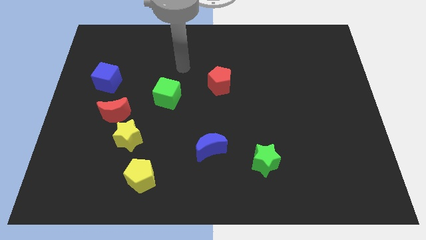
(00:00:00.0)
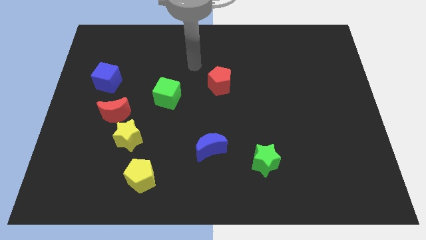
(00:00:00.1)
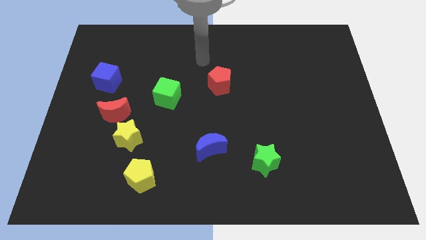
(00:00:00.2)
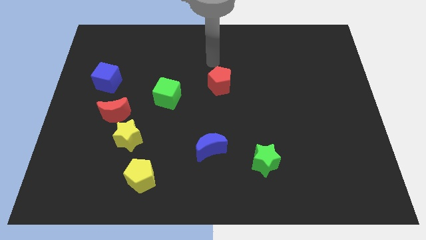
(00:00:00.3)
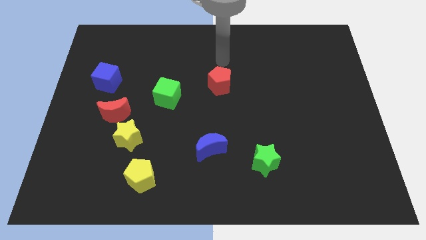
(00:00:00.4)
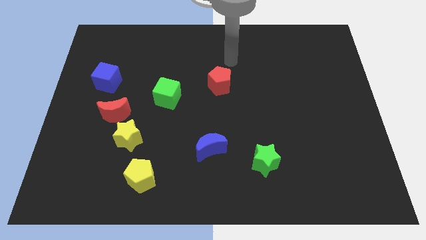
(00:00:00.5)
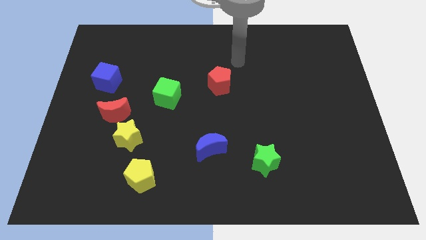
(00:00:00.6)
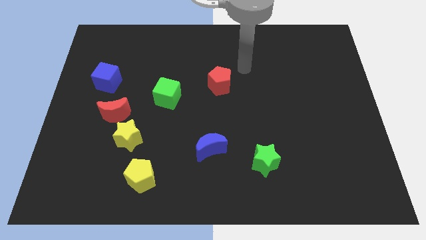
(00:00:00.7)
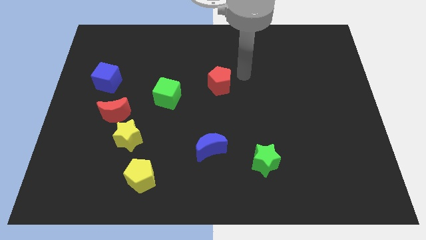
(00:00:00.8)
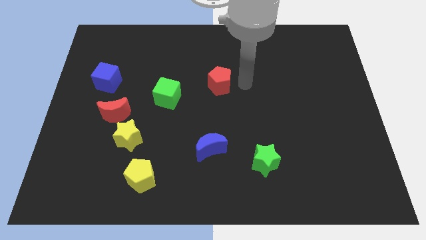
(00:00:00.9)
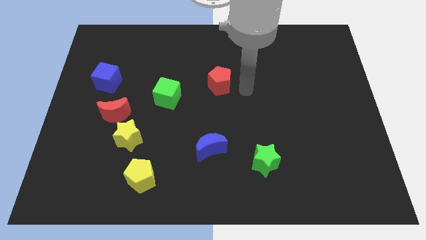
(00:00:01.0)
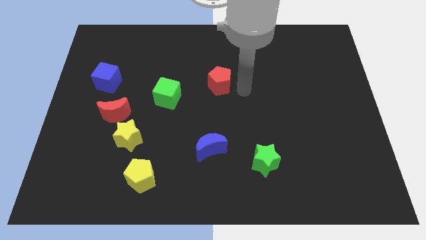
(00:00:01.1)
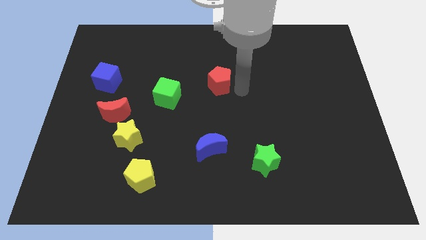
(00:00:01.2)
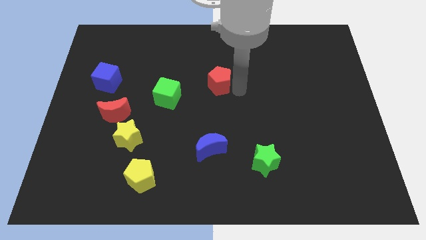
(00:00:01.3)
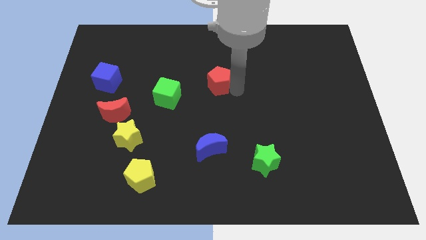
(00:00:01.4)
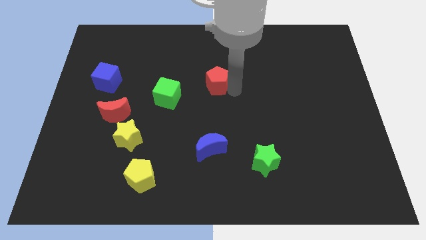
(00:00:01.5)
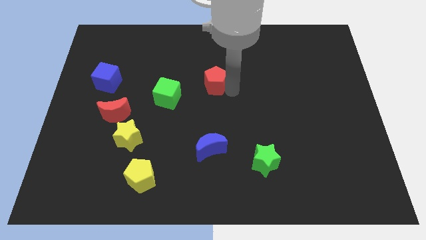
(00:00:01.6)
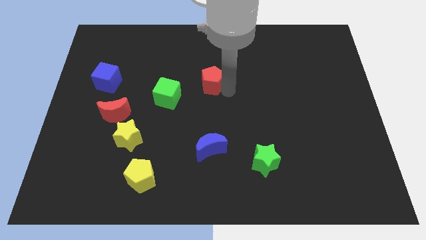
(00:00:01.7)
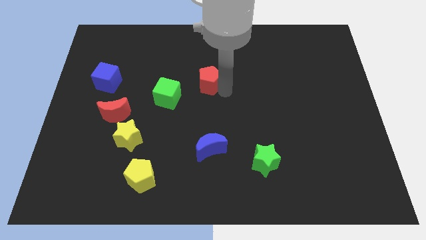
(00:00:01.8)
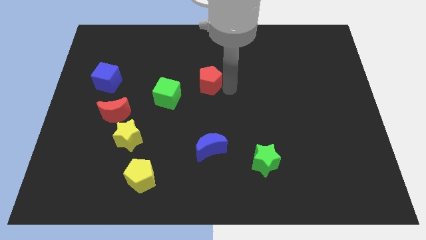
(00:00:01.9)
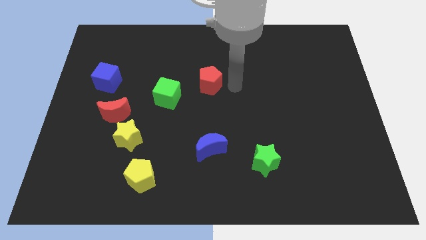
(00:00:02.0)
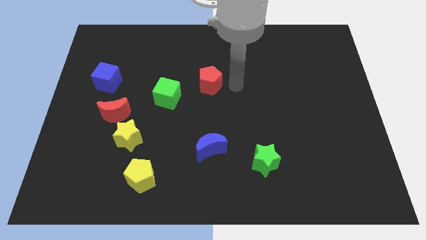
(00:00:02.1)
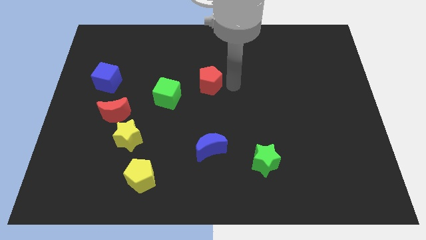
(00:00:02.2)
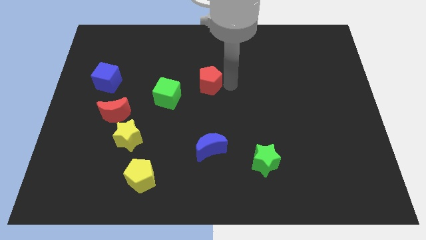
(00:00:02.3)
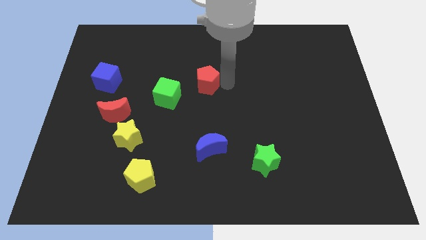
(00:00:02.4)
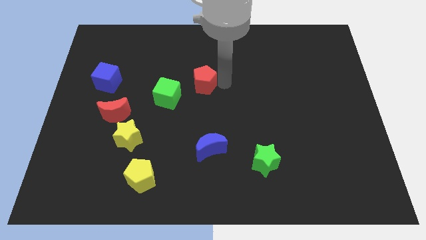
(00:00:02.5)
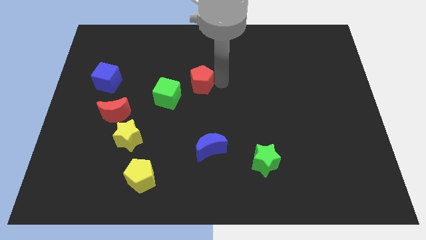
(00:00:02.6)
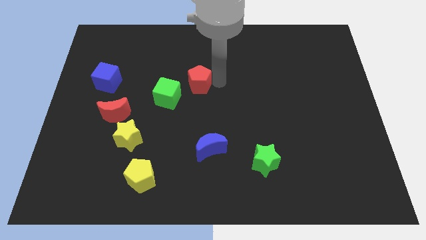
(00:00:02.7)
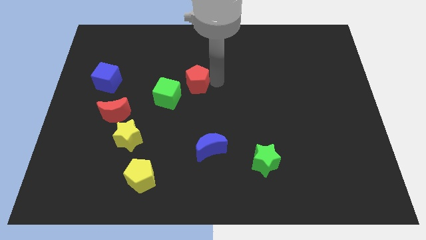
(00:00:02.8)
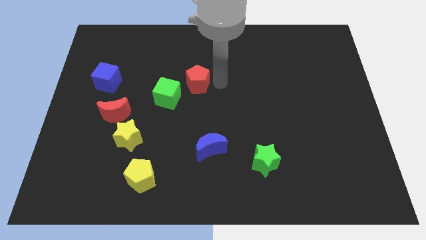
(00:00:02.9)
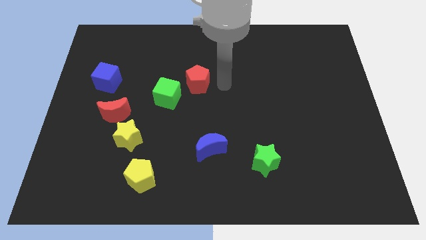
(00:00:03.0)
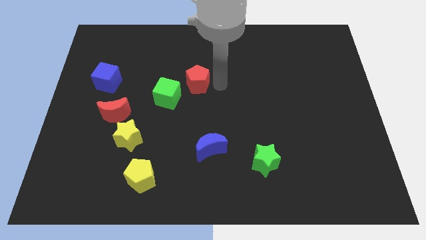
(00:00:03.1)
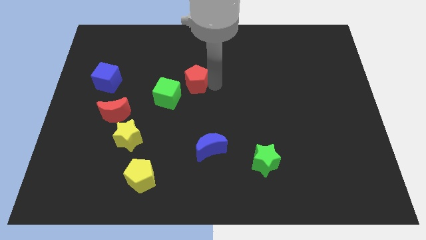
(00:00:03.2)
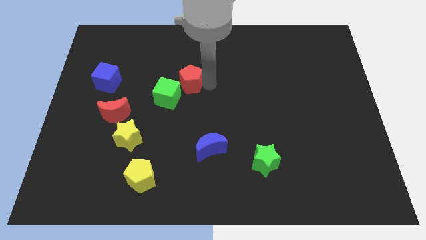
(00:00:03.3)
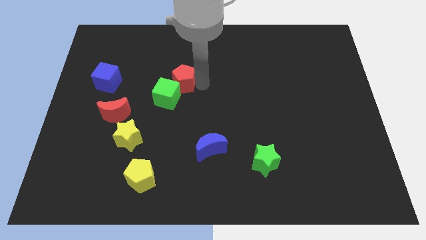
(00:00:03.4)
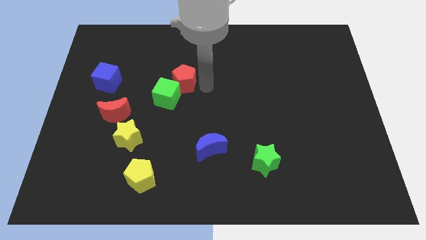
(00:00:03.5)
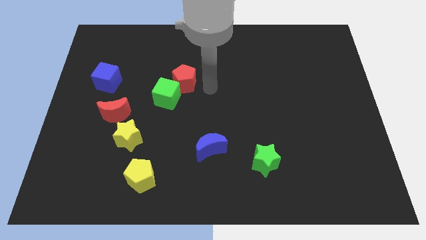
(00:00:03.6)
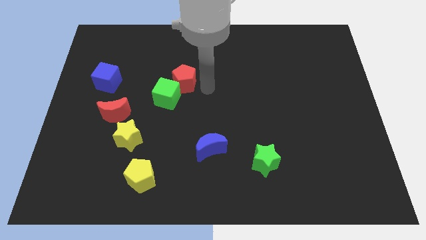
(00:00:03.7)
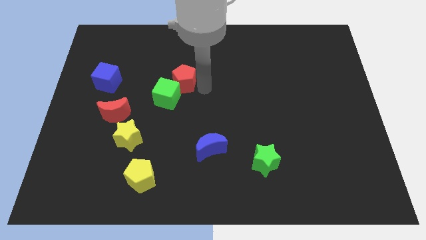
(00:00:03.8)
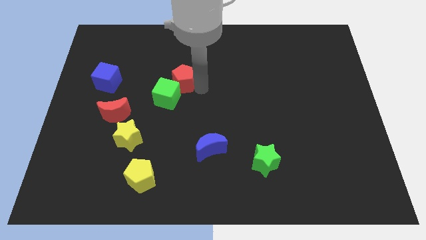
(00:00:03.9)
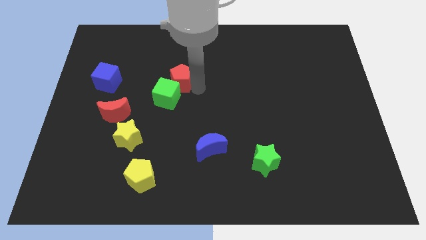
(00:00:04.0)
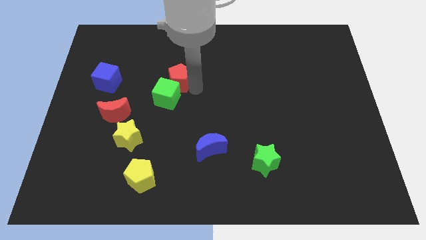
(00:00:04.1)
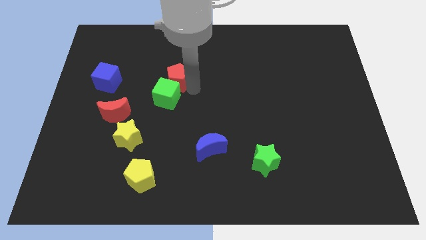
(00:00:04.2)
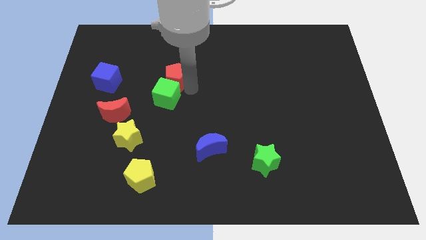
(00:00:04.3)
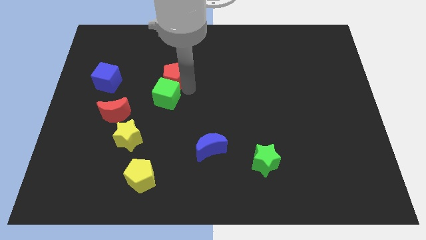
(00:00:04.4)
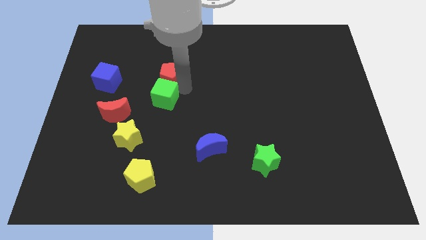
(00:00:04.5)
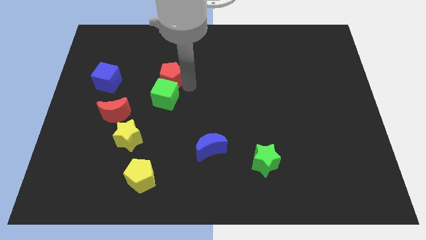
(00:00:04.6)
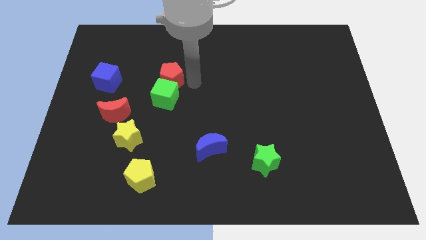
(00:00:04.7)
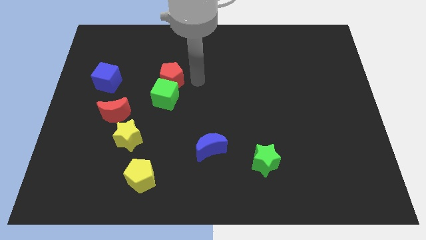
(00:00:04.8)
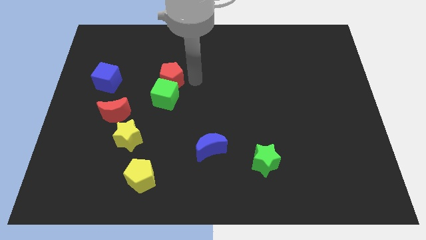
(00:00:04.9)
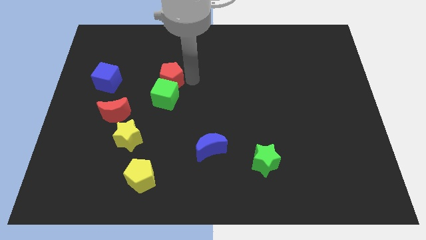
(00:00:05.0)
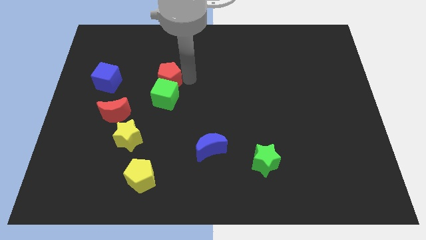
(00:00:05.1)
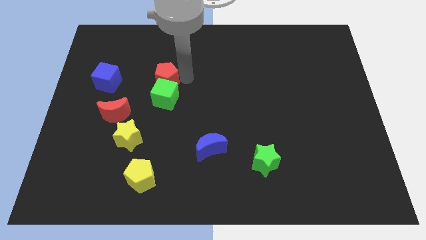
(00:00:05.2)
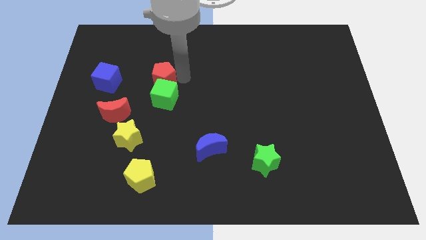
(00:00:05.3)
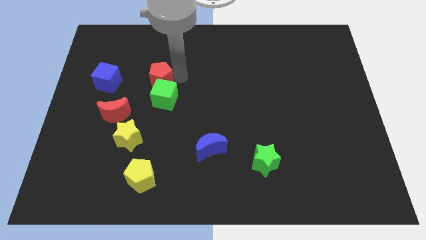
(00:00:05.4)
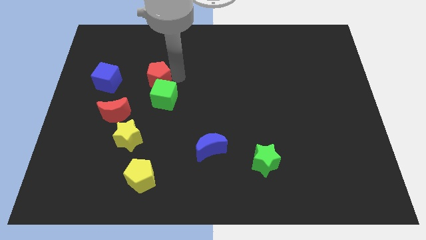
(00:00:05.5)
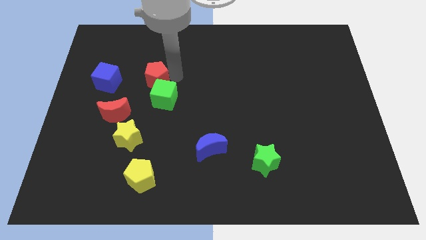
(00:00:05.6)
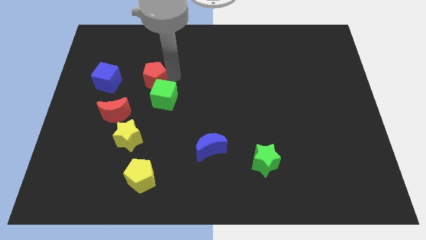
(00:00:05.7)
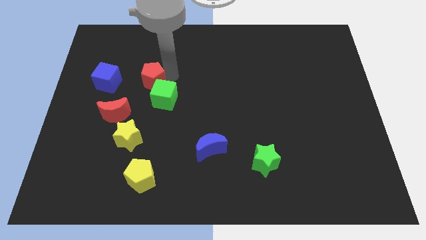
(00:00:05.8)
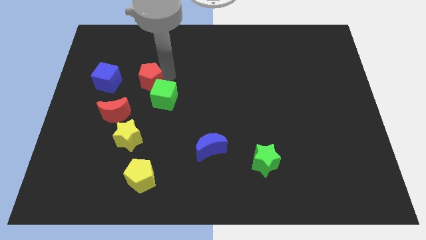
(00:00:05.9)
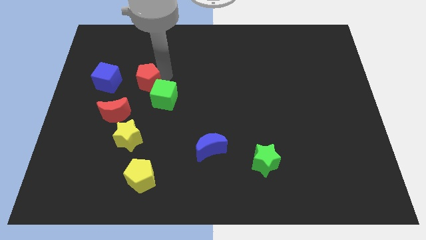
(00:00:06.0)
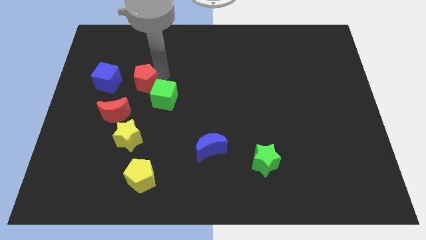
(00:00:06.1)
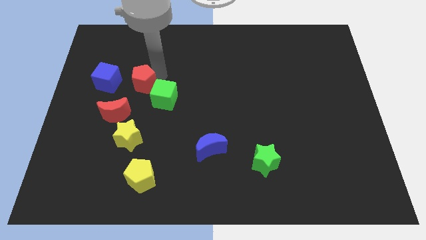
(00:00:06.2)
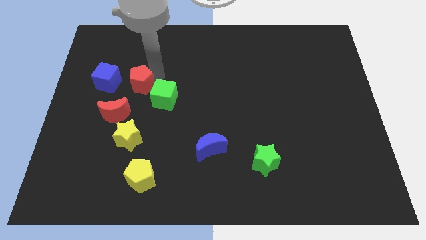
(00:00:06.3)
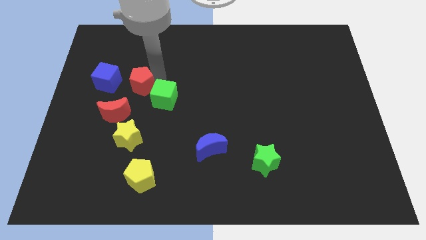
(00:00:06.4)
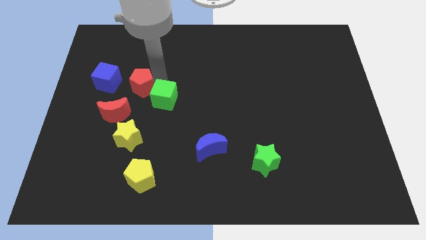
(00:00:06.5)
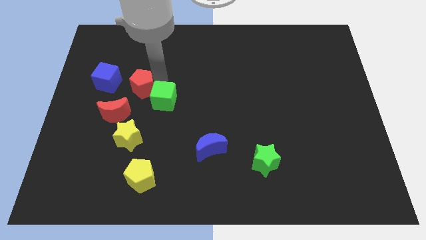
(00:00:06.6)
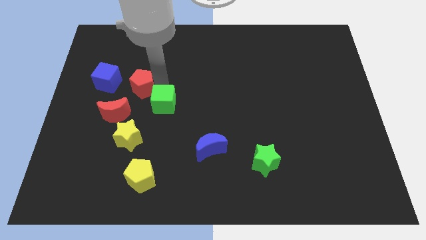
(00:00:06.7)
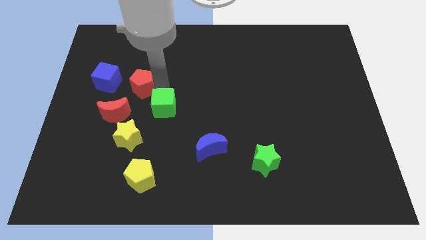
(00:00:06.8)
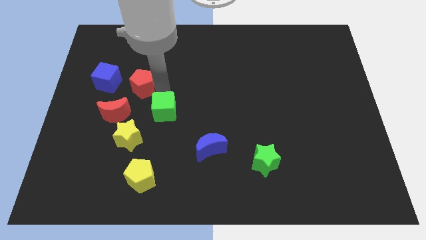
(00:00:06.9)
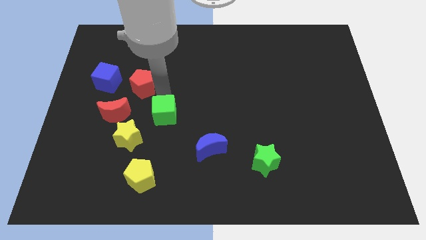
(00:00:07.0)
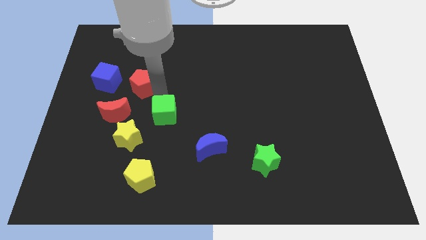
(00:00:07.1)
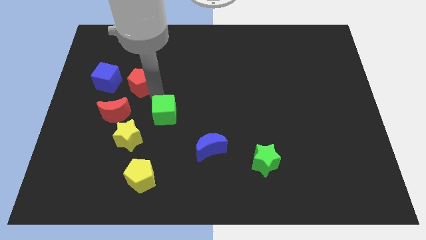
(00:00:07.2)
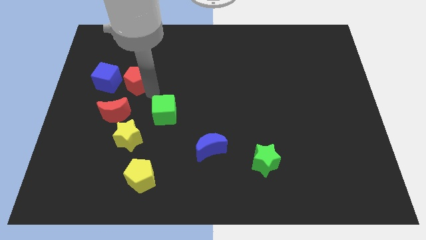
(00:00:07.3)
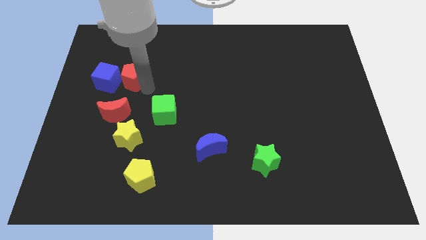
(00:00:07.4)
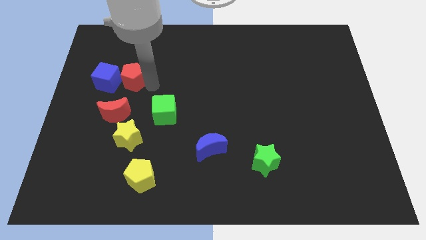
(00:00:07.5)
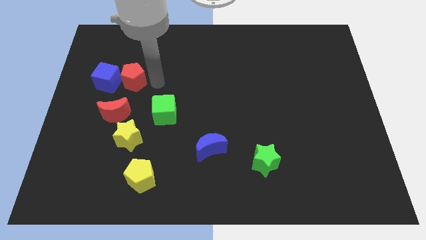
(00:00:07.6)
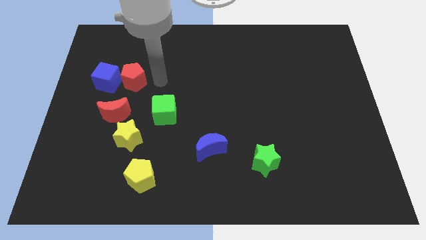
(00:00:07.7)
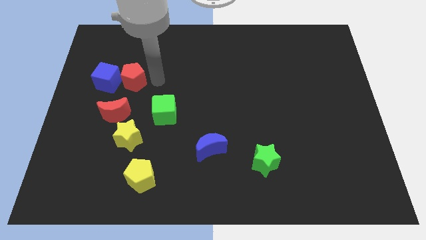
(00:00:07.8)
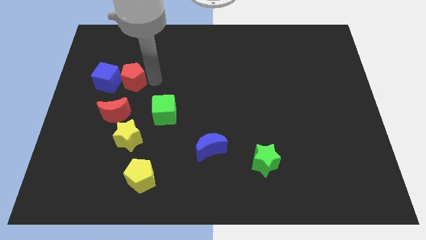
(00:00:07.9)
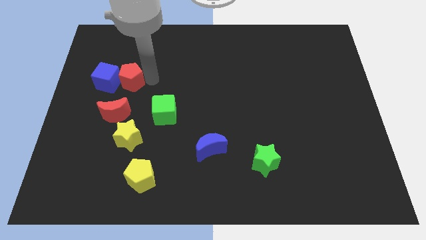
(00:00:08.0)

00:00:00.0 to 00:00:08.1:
move the red pentagon close to the blue cube
